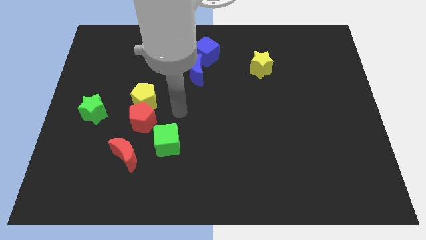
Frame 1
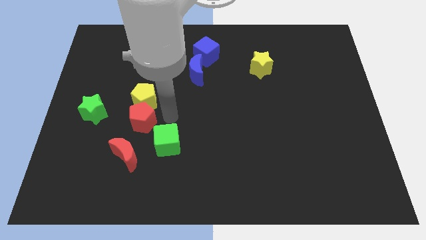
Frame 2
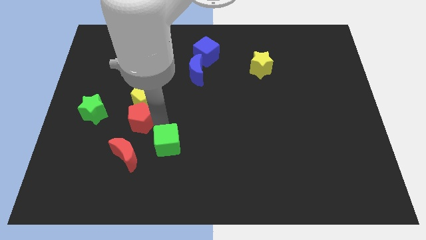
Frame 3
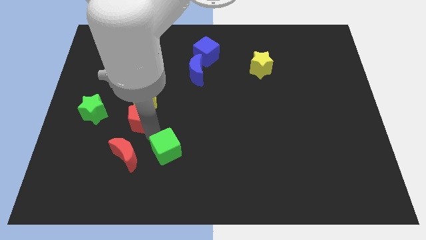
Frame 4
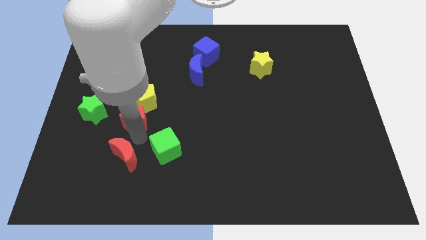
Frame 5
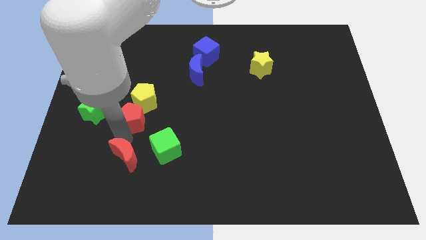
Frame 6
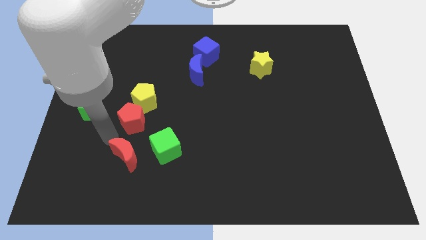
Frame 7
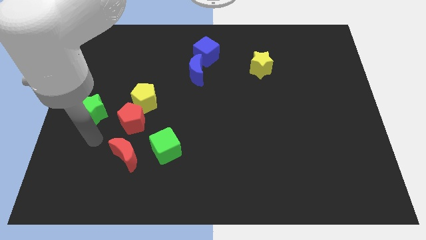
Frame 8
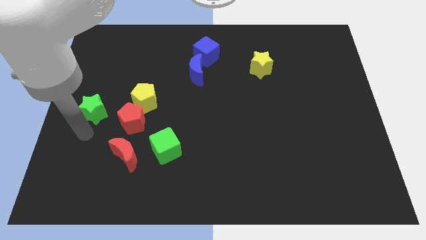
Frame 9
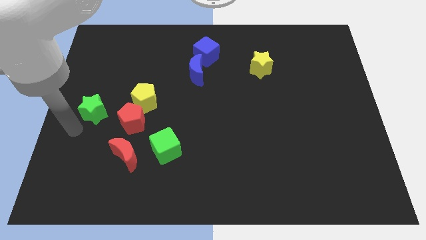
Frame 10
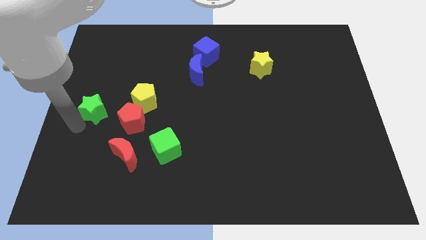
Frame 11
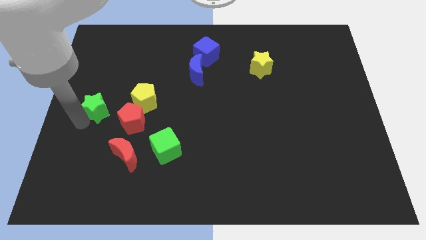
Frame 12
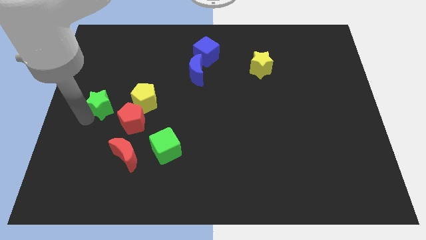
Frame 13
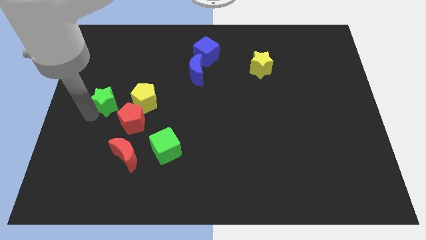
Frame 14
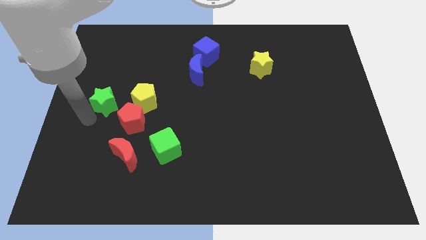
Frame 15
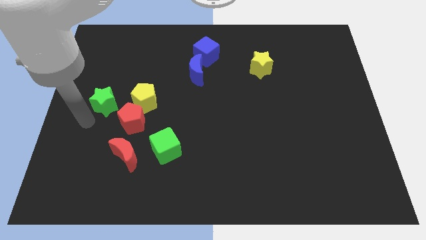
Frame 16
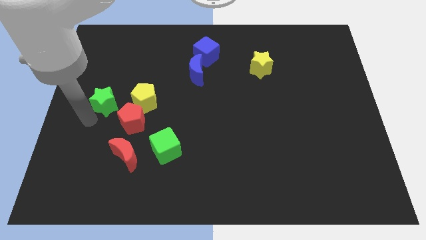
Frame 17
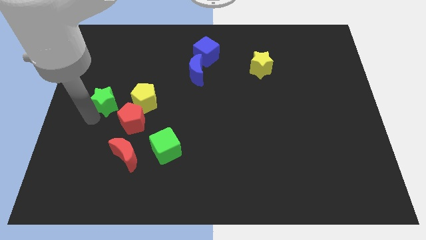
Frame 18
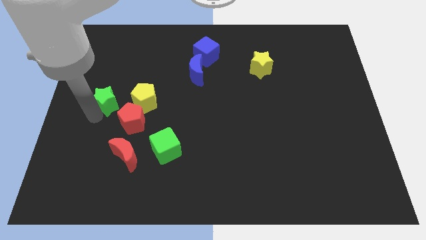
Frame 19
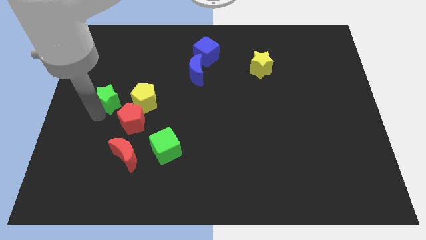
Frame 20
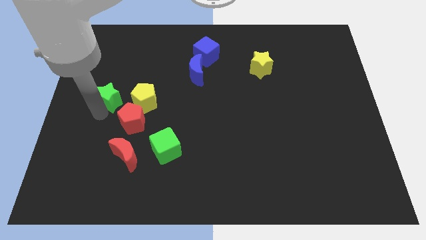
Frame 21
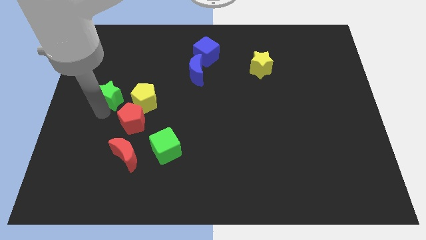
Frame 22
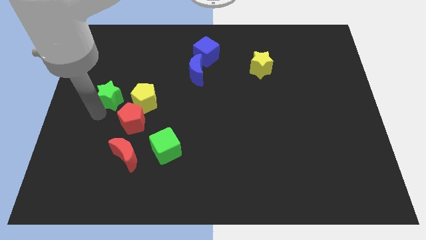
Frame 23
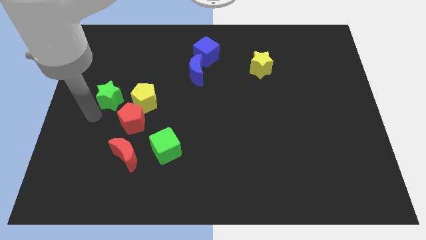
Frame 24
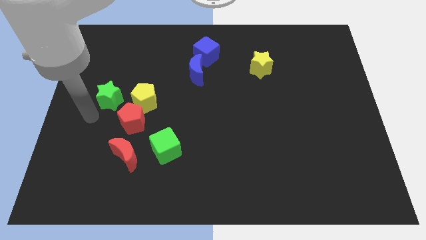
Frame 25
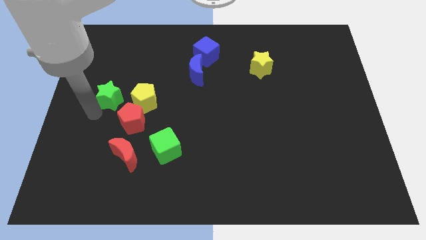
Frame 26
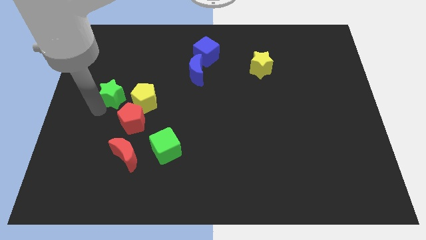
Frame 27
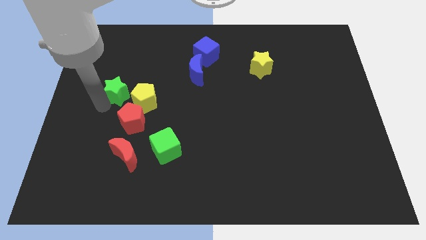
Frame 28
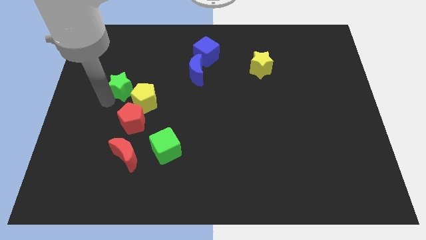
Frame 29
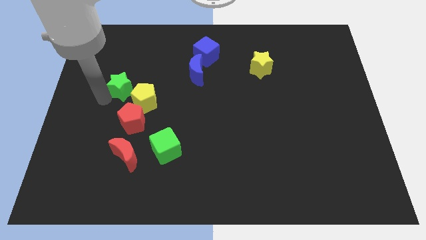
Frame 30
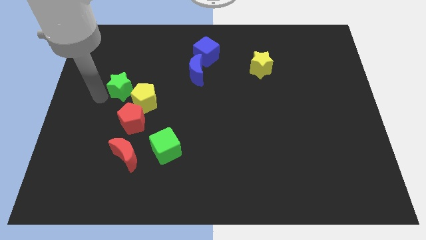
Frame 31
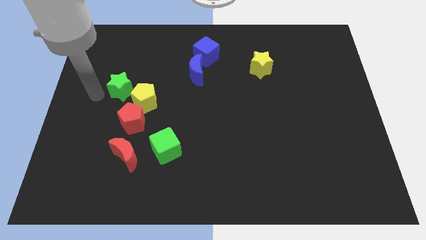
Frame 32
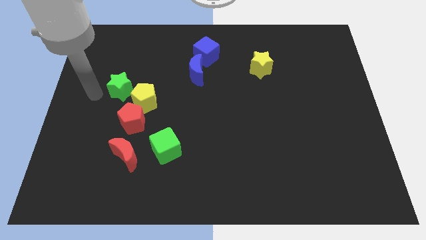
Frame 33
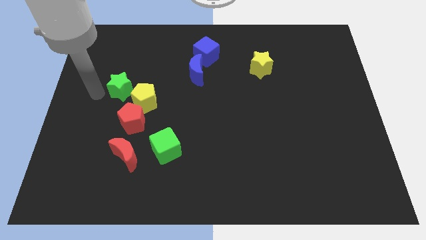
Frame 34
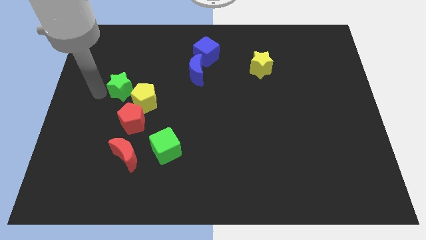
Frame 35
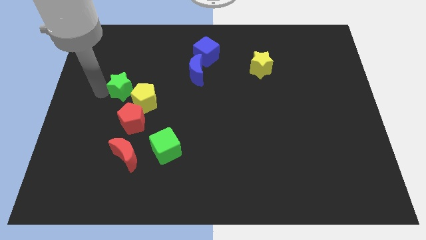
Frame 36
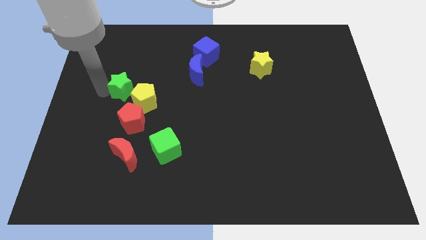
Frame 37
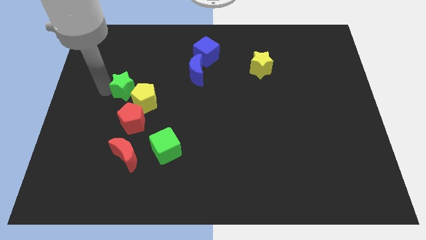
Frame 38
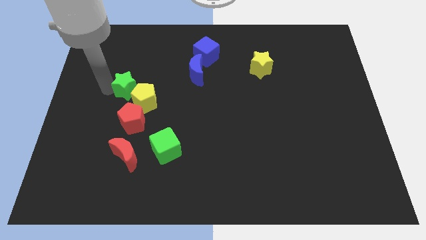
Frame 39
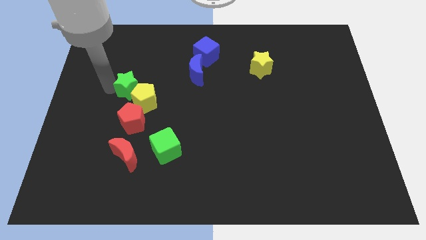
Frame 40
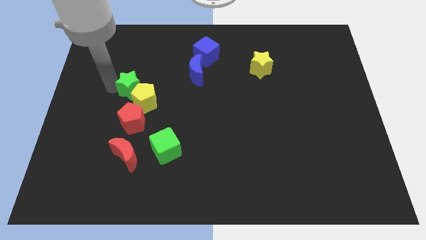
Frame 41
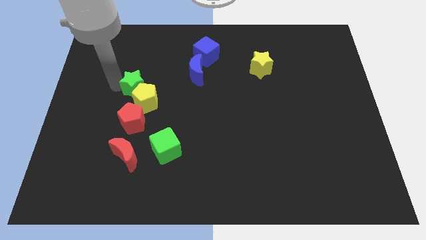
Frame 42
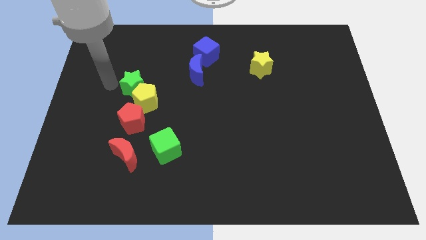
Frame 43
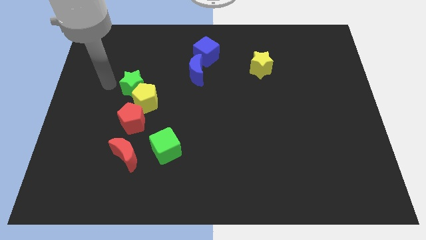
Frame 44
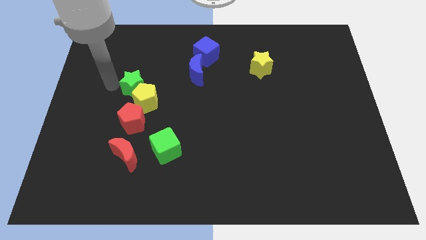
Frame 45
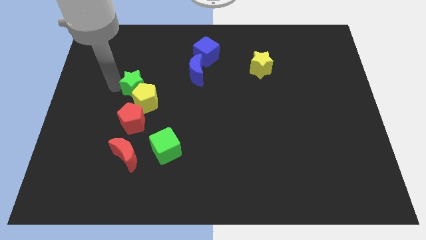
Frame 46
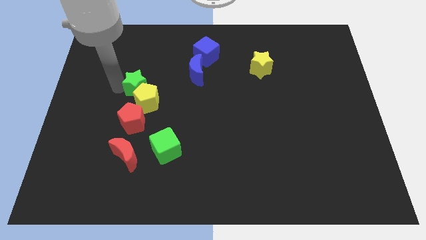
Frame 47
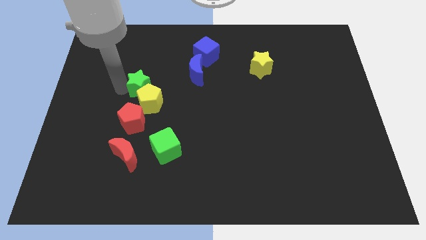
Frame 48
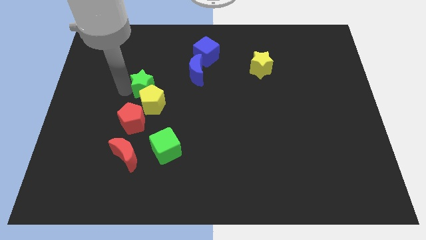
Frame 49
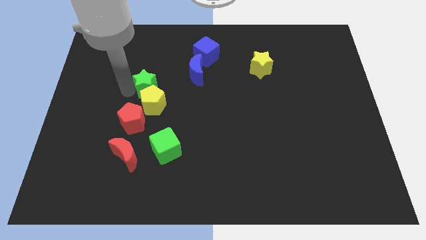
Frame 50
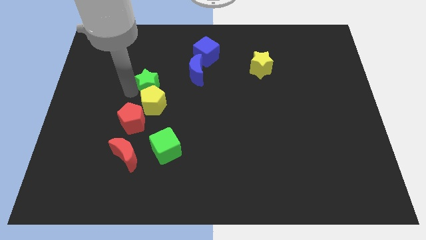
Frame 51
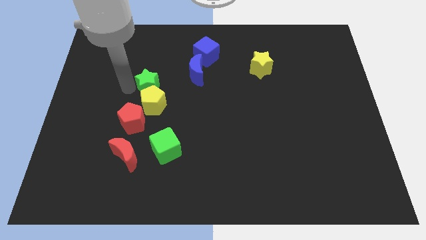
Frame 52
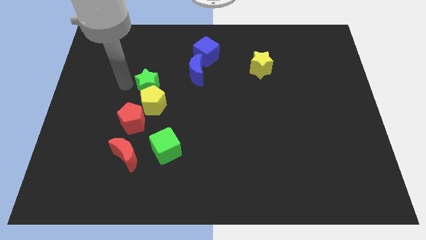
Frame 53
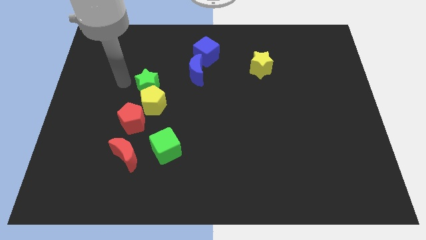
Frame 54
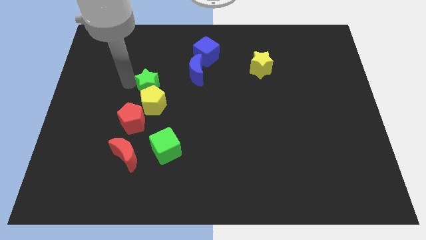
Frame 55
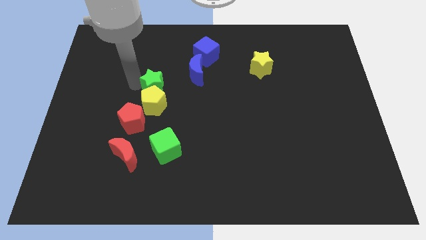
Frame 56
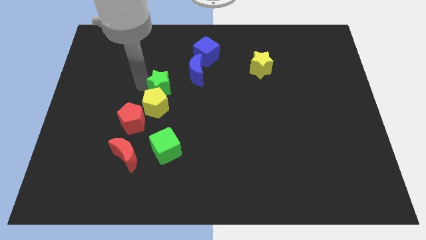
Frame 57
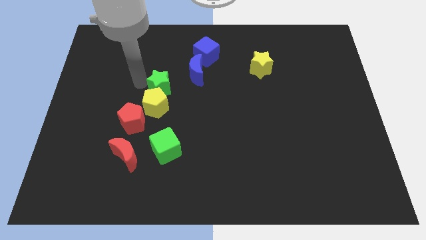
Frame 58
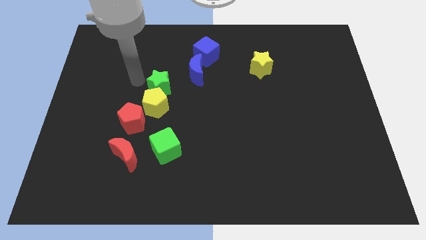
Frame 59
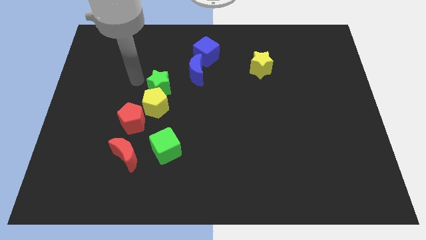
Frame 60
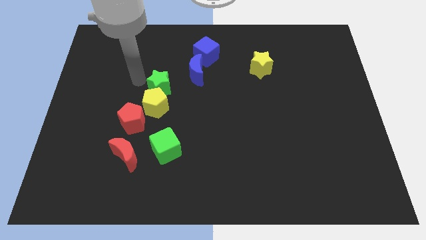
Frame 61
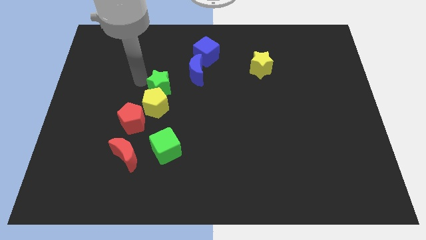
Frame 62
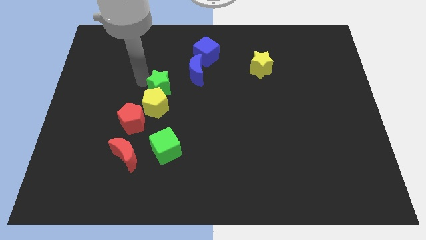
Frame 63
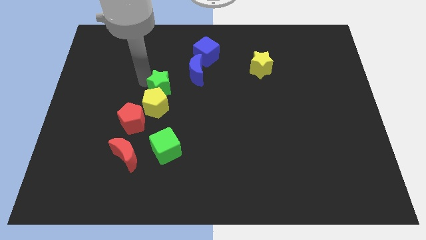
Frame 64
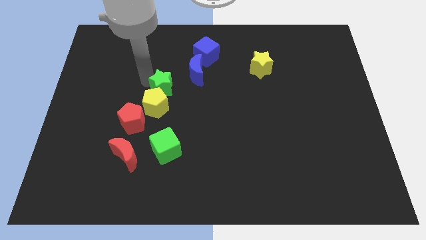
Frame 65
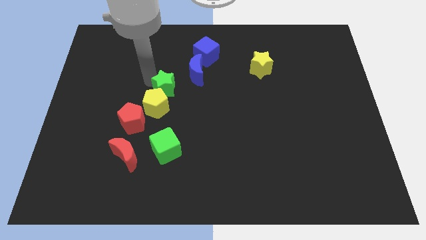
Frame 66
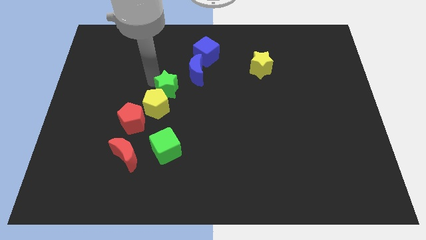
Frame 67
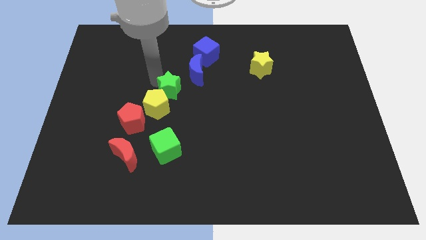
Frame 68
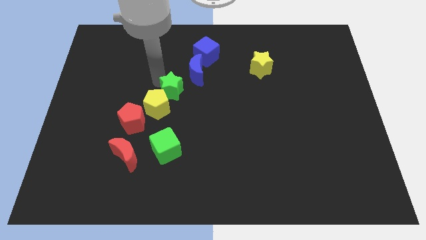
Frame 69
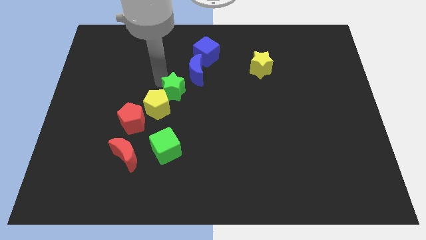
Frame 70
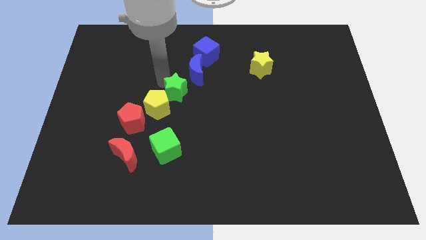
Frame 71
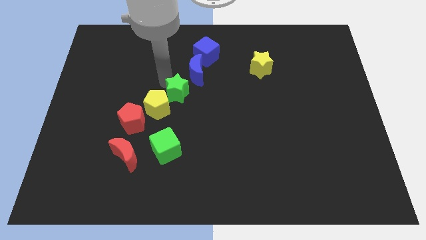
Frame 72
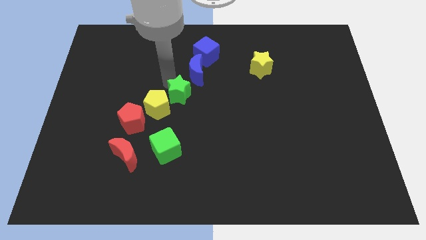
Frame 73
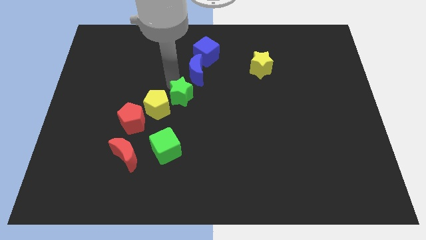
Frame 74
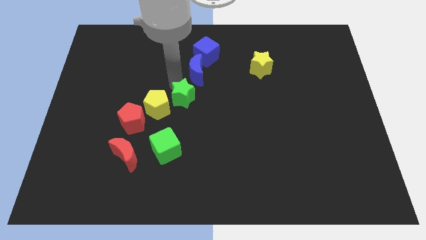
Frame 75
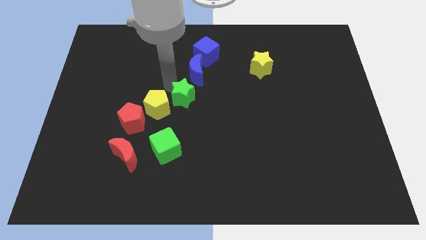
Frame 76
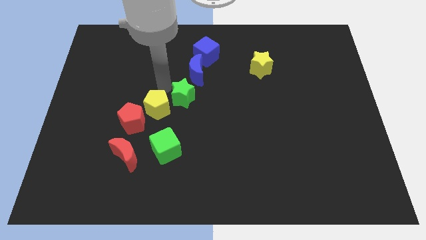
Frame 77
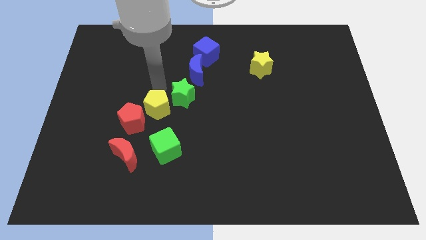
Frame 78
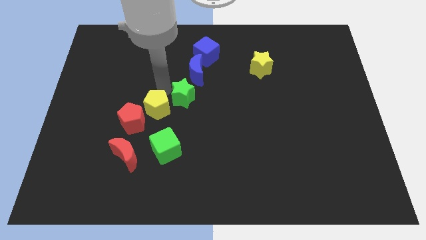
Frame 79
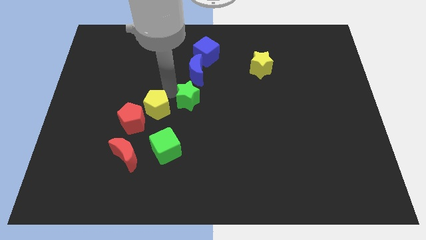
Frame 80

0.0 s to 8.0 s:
slide the green star right
